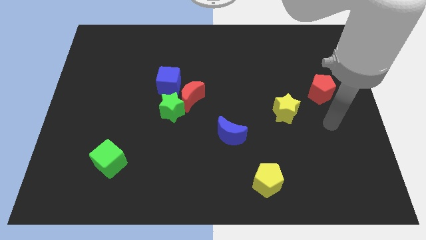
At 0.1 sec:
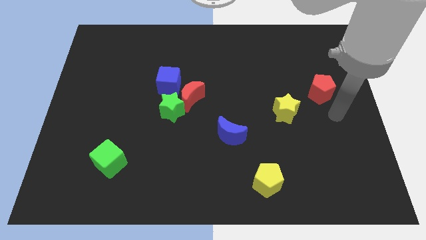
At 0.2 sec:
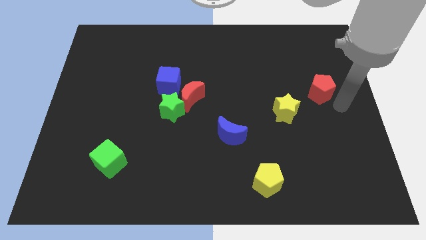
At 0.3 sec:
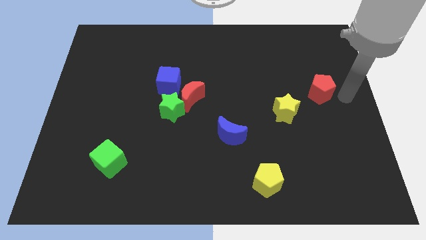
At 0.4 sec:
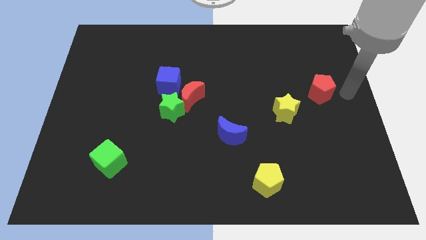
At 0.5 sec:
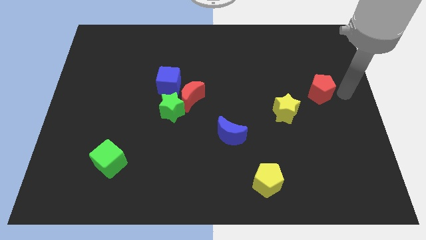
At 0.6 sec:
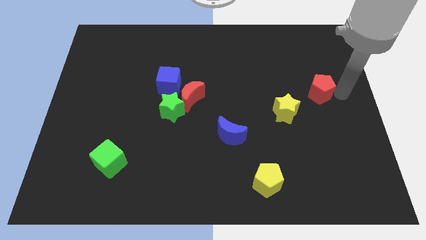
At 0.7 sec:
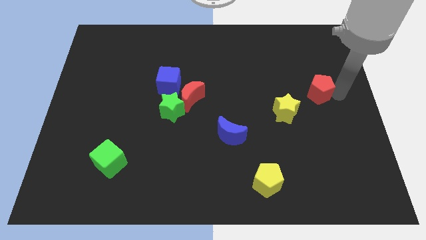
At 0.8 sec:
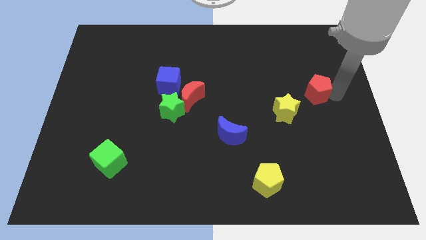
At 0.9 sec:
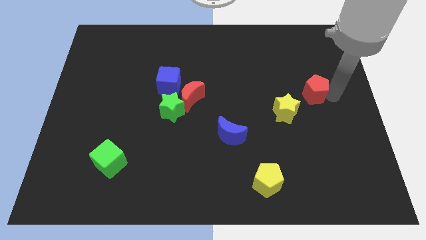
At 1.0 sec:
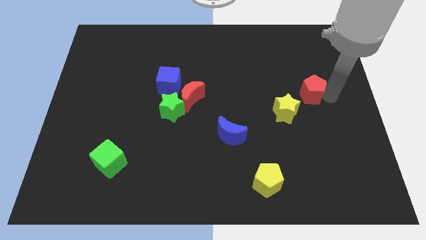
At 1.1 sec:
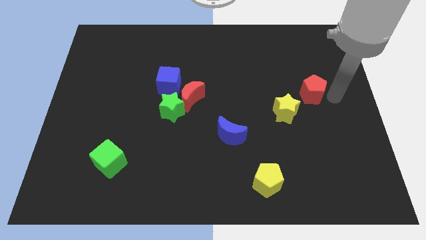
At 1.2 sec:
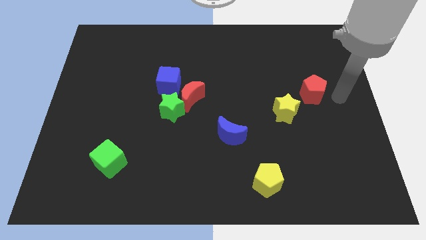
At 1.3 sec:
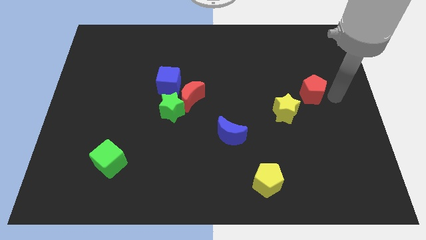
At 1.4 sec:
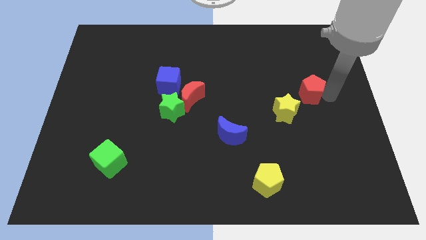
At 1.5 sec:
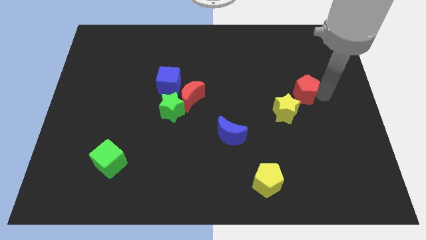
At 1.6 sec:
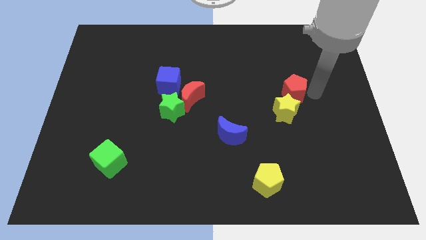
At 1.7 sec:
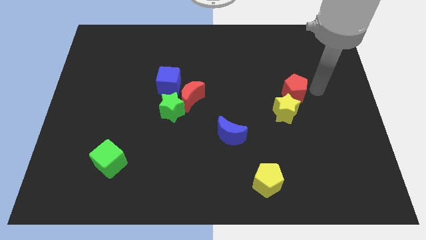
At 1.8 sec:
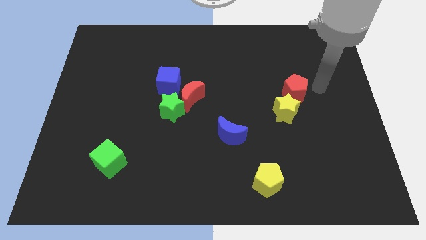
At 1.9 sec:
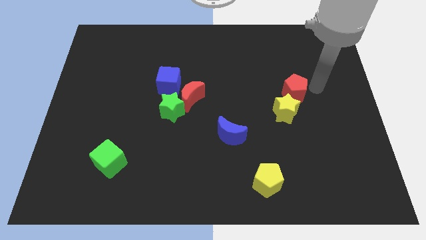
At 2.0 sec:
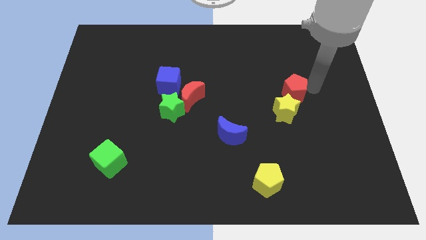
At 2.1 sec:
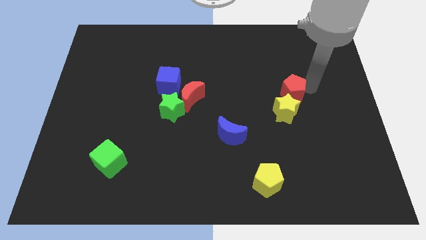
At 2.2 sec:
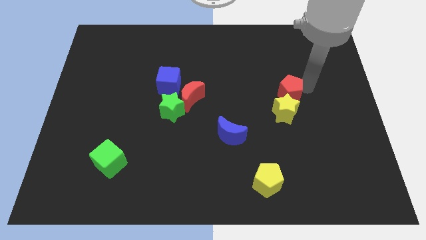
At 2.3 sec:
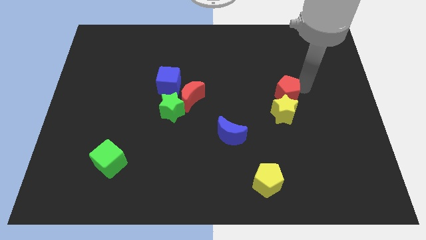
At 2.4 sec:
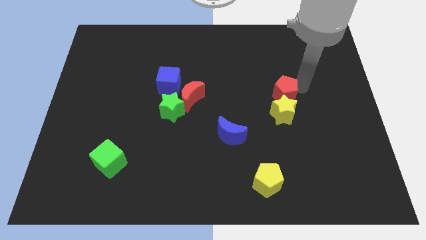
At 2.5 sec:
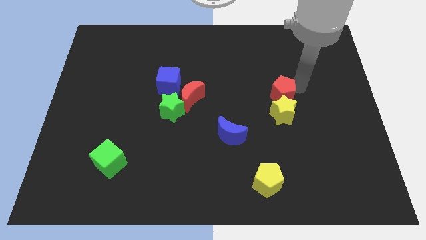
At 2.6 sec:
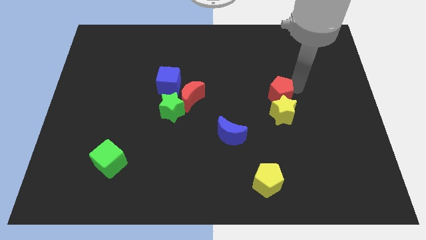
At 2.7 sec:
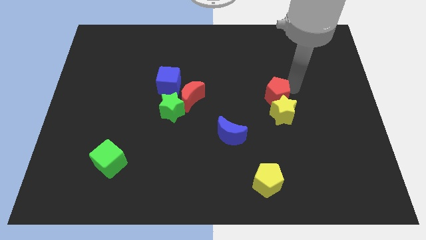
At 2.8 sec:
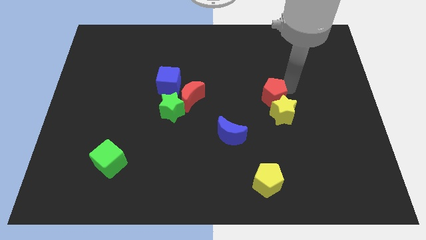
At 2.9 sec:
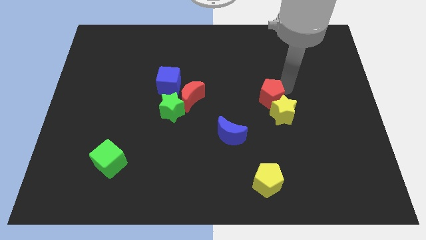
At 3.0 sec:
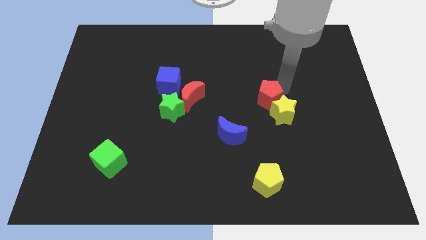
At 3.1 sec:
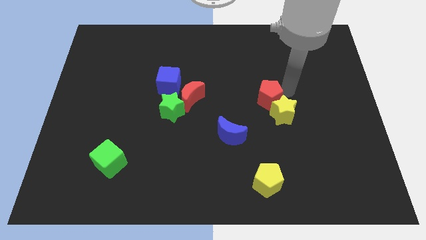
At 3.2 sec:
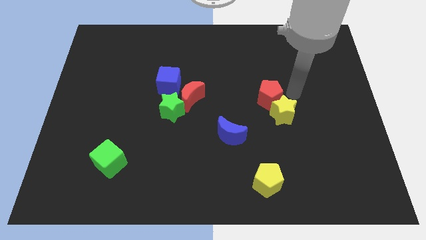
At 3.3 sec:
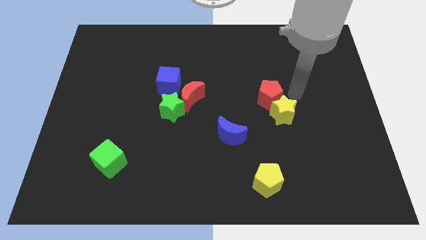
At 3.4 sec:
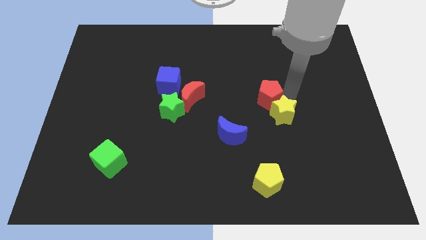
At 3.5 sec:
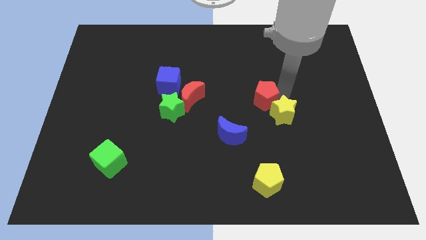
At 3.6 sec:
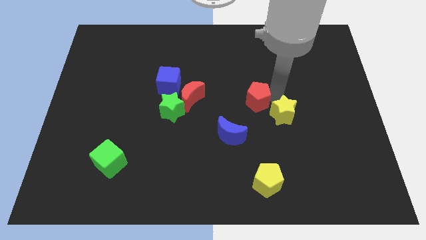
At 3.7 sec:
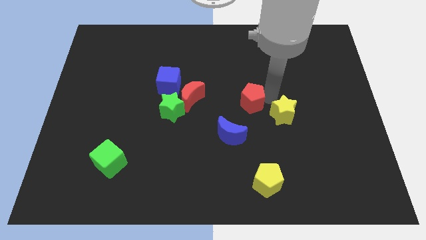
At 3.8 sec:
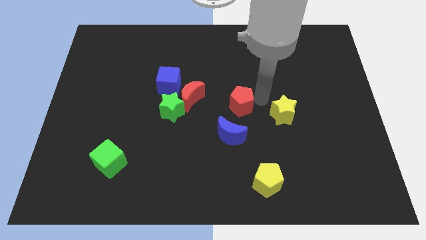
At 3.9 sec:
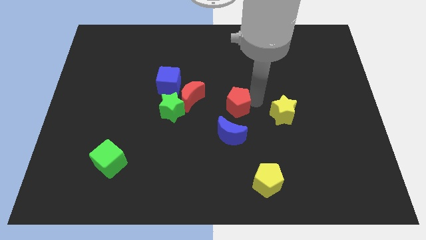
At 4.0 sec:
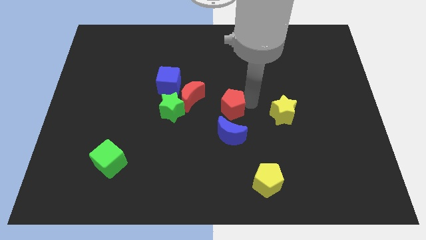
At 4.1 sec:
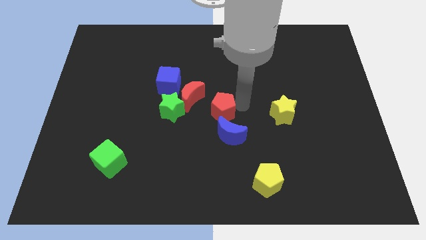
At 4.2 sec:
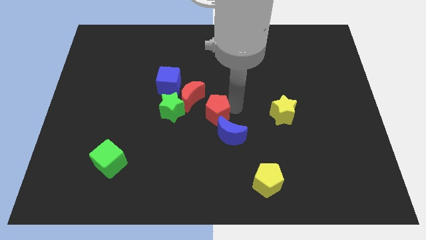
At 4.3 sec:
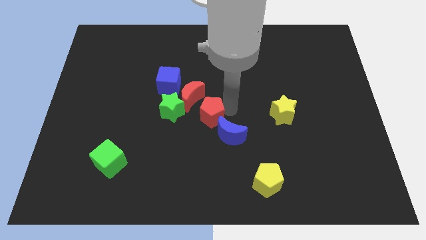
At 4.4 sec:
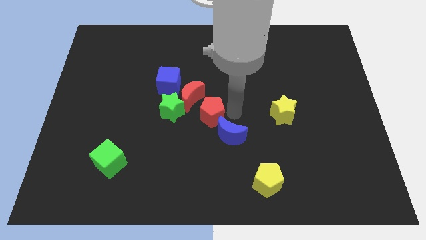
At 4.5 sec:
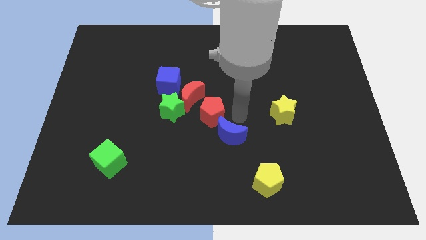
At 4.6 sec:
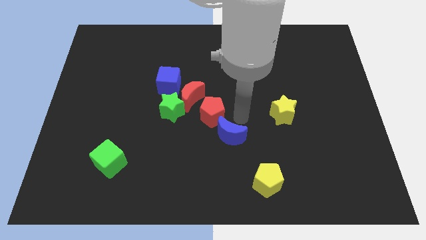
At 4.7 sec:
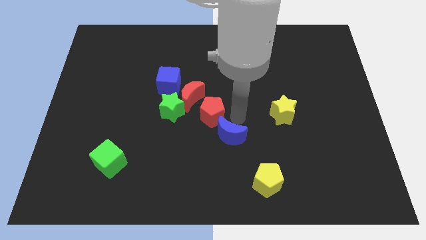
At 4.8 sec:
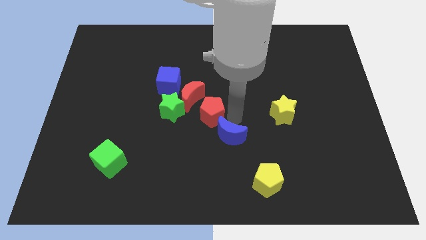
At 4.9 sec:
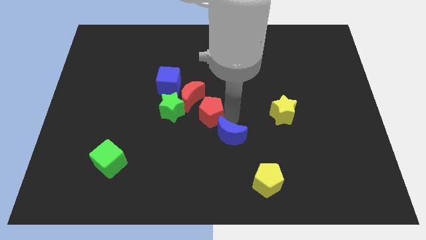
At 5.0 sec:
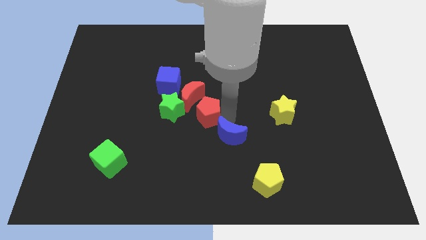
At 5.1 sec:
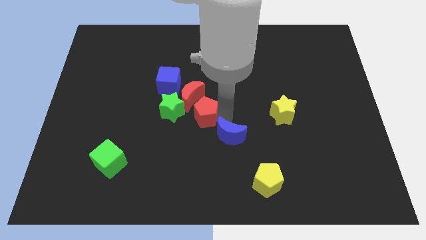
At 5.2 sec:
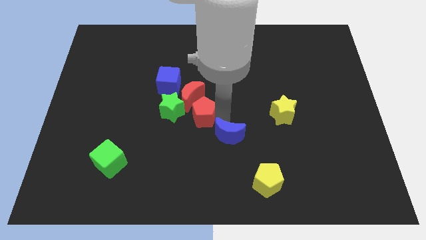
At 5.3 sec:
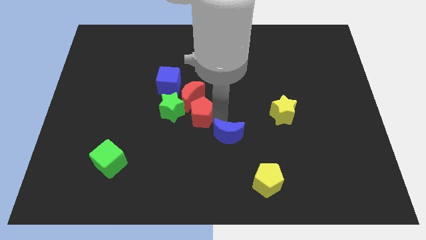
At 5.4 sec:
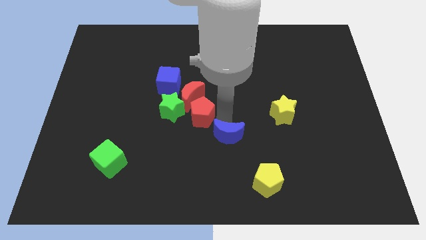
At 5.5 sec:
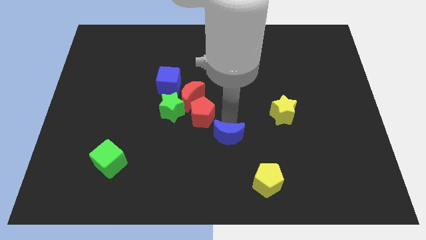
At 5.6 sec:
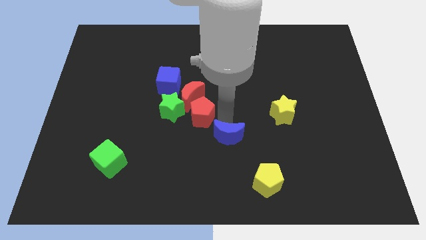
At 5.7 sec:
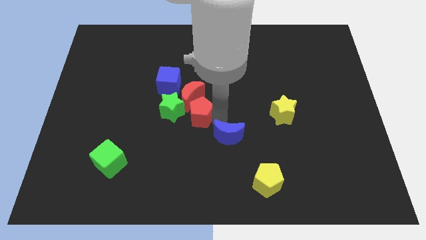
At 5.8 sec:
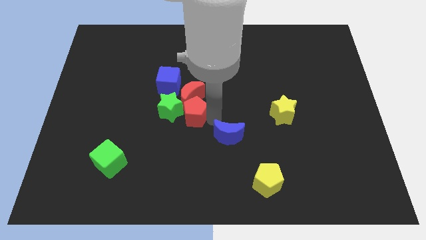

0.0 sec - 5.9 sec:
put the red pentagon towards the green star

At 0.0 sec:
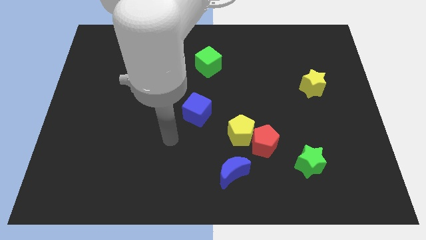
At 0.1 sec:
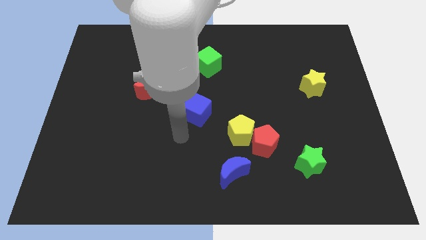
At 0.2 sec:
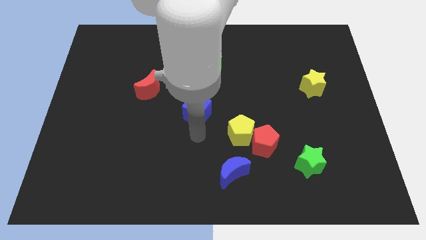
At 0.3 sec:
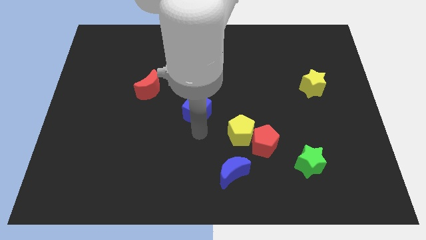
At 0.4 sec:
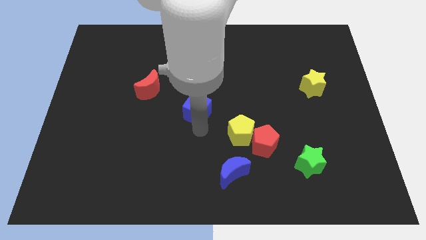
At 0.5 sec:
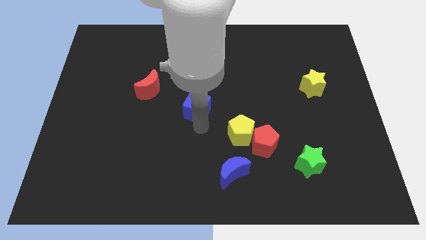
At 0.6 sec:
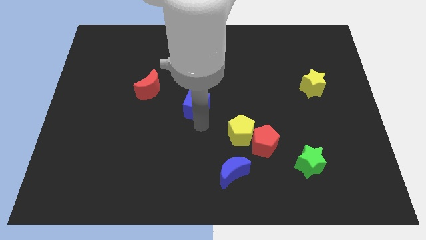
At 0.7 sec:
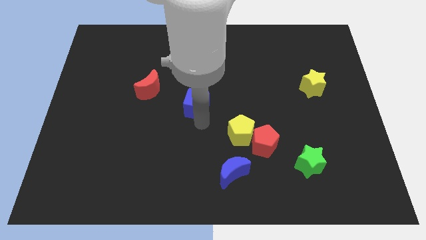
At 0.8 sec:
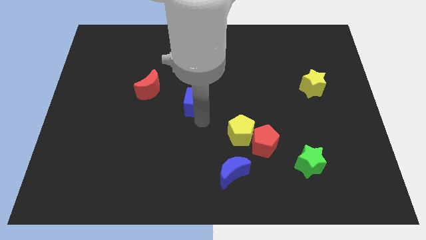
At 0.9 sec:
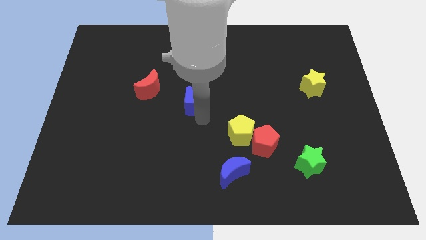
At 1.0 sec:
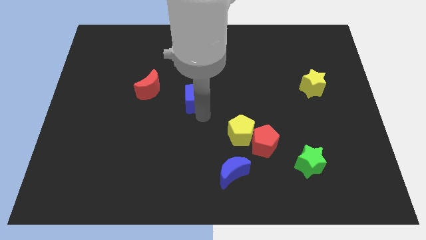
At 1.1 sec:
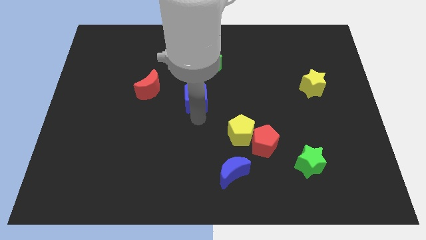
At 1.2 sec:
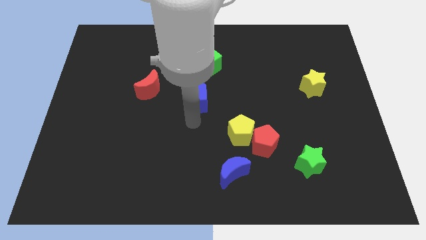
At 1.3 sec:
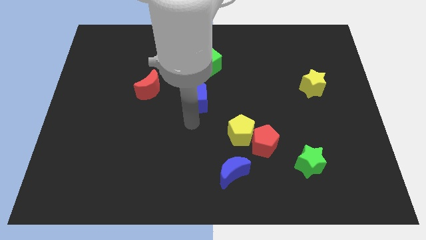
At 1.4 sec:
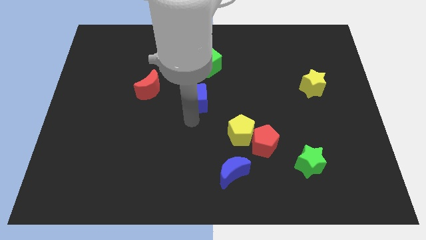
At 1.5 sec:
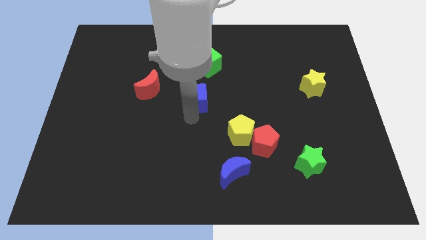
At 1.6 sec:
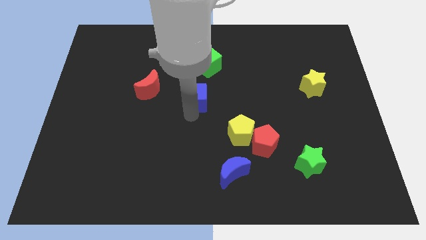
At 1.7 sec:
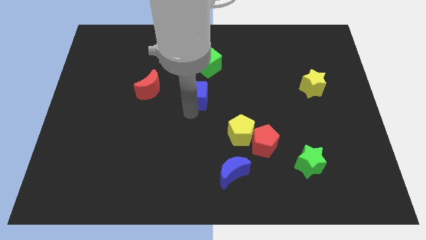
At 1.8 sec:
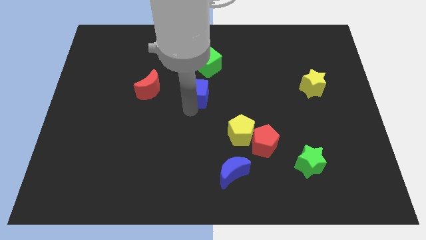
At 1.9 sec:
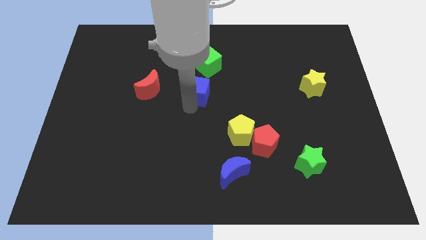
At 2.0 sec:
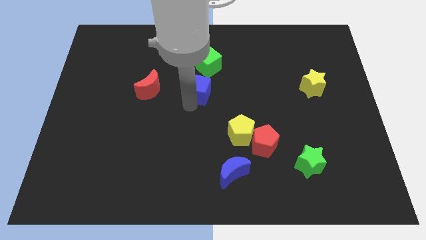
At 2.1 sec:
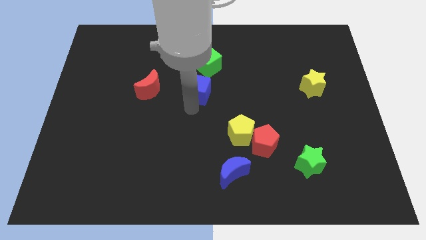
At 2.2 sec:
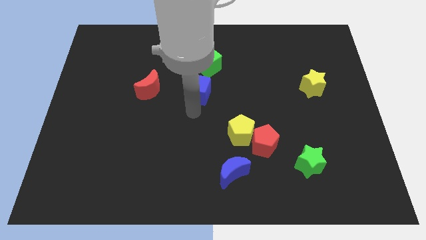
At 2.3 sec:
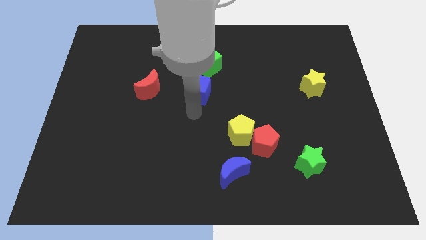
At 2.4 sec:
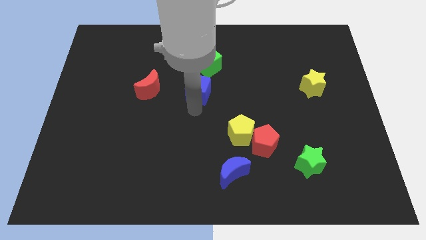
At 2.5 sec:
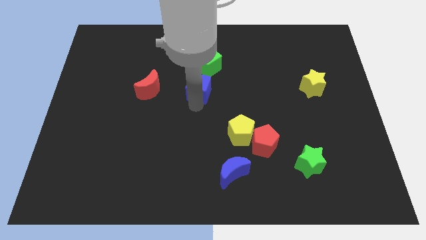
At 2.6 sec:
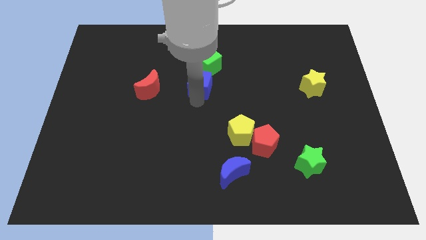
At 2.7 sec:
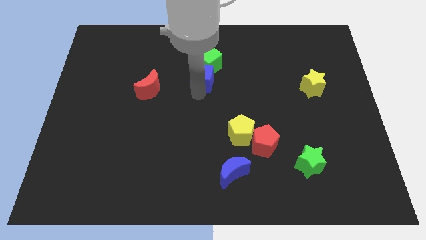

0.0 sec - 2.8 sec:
move the blue cube next to the green cube
